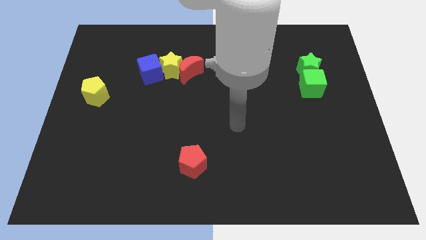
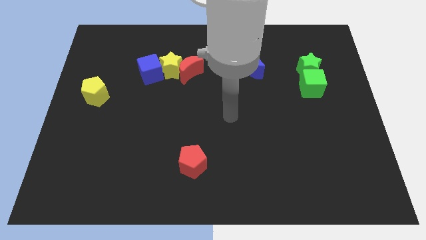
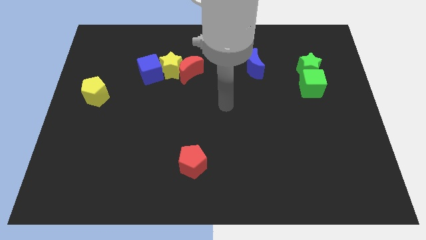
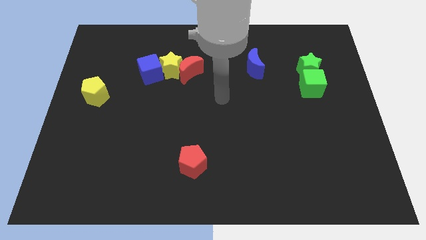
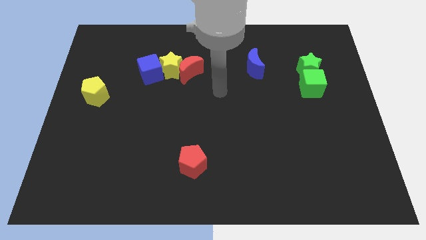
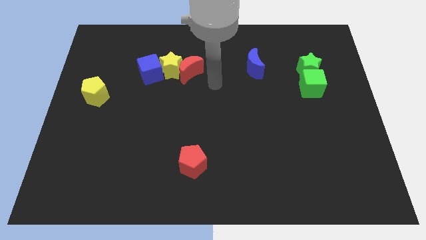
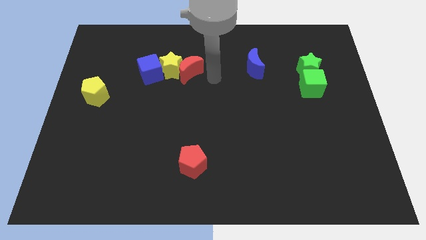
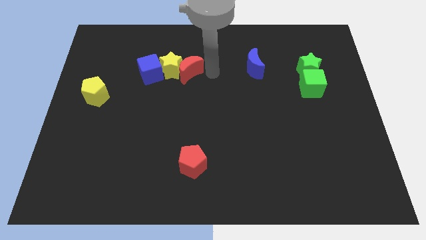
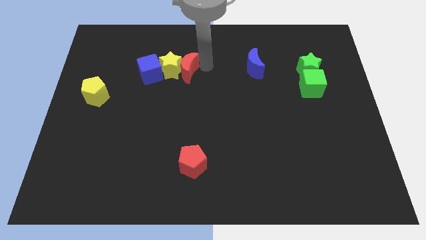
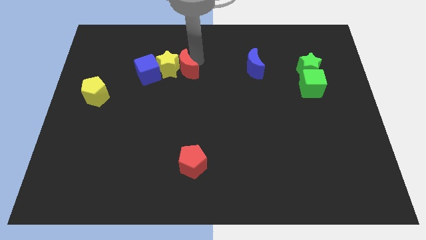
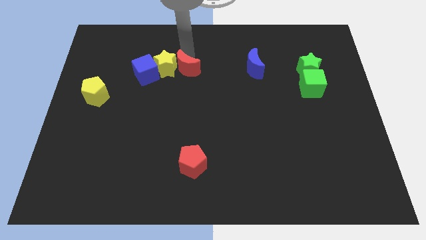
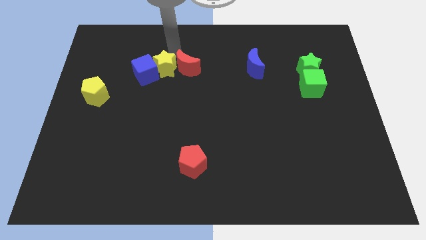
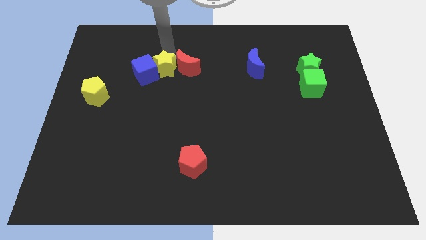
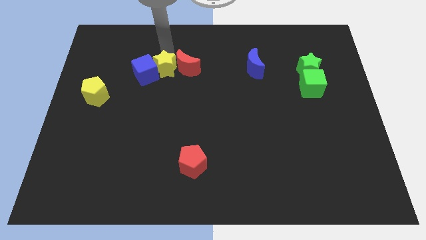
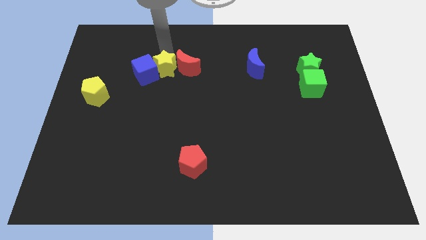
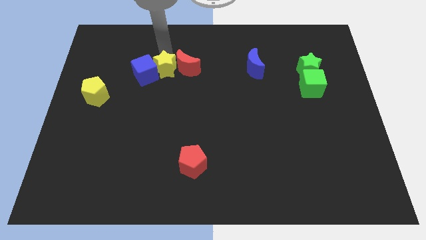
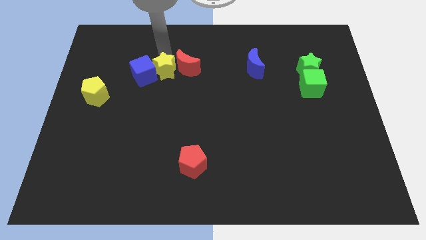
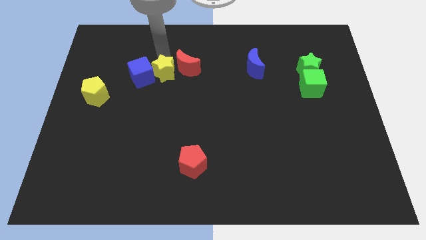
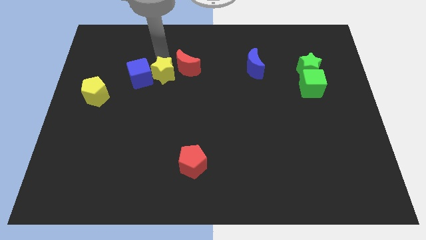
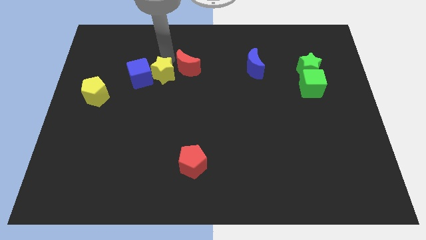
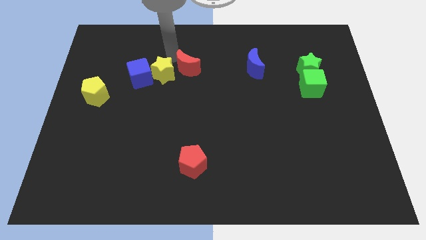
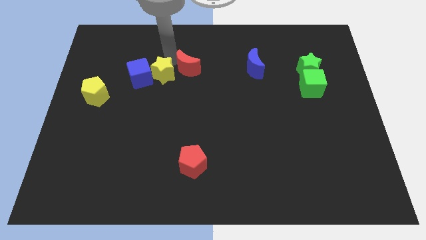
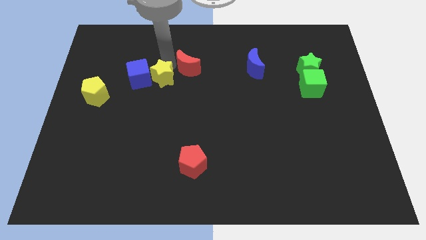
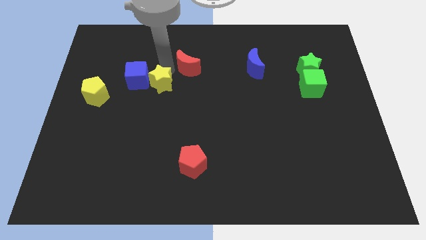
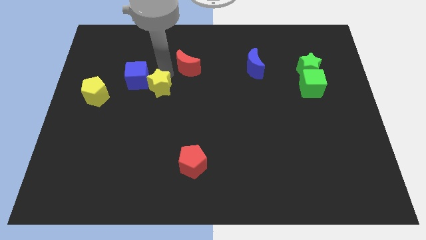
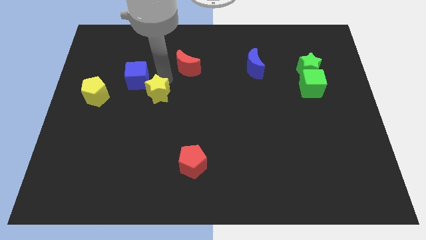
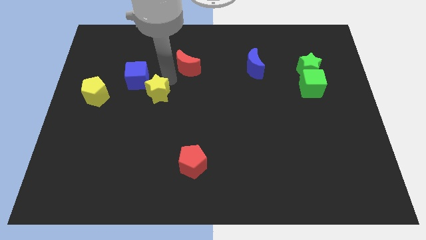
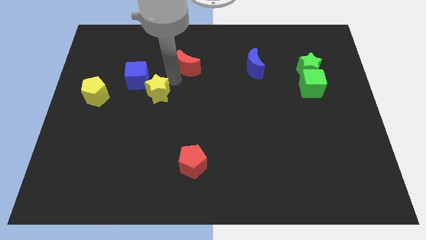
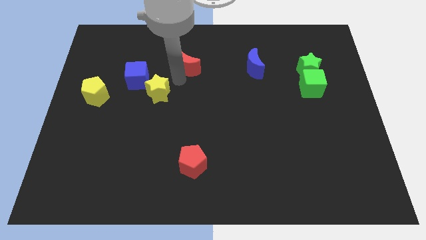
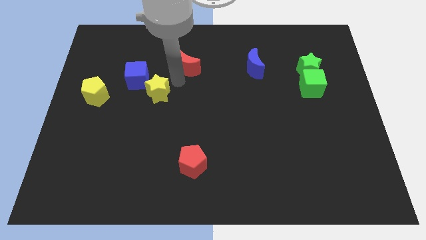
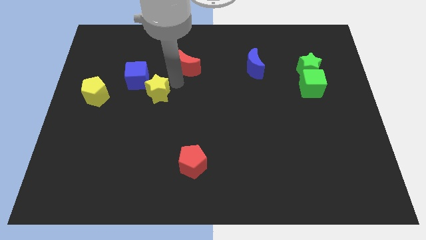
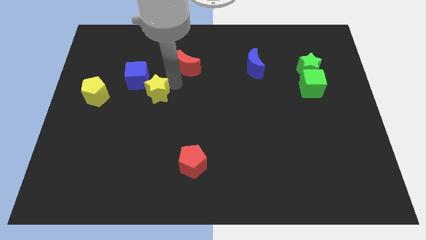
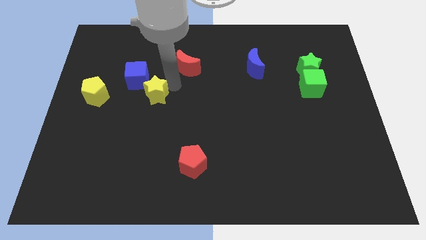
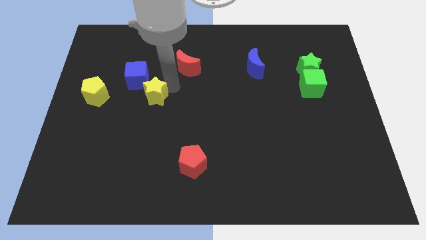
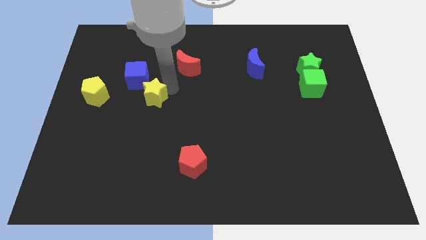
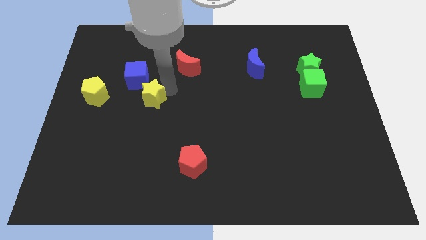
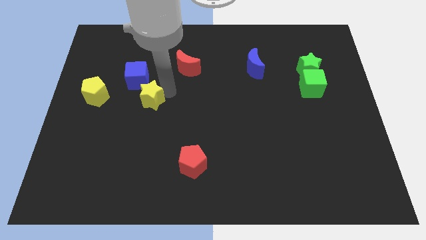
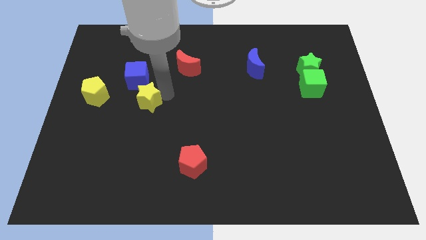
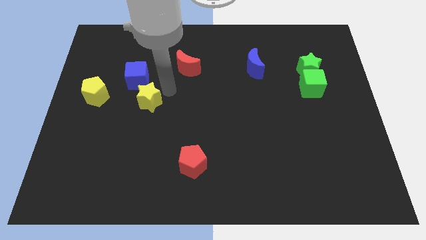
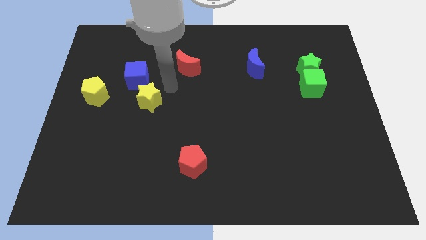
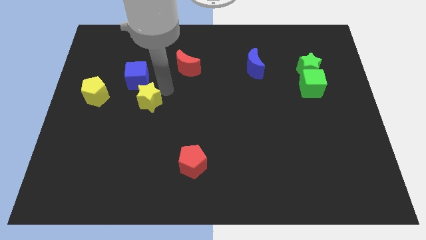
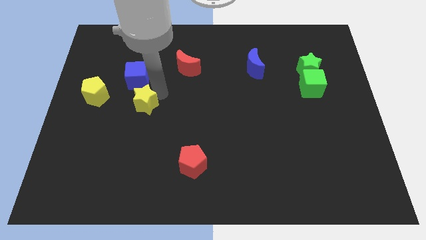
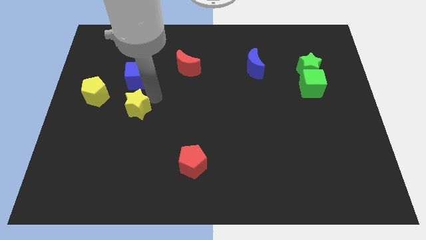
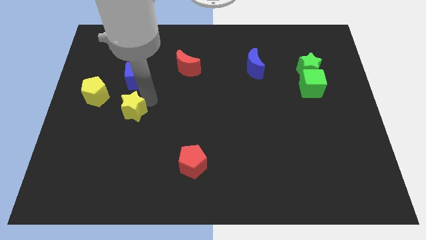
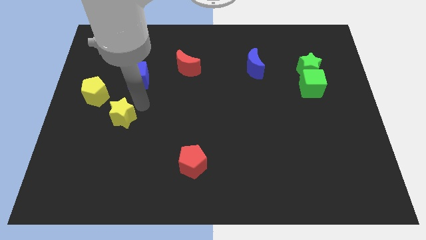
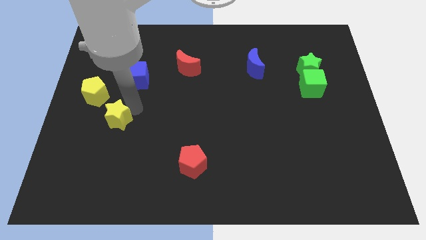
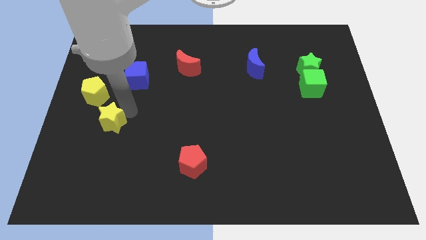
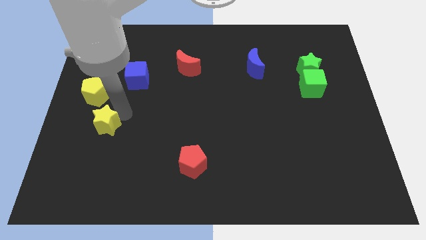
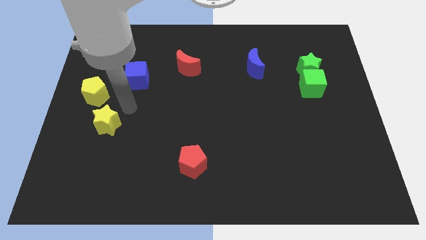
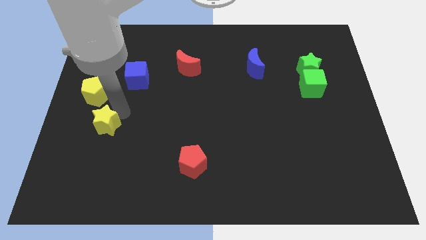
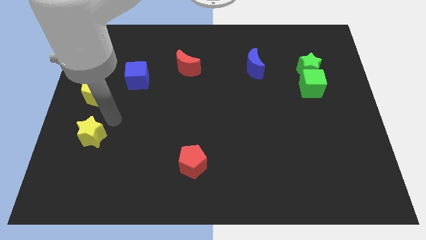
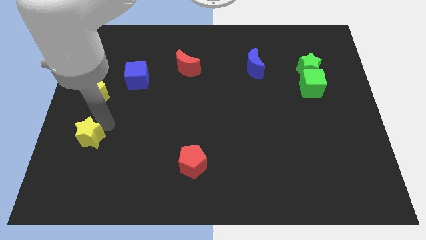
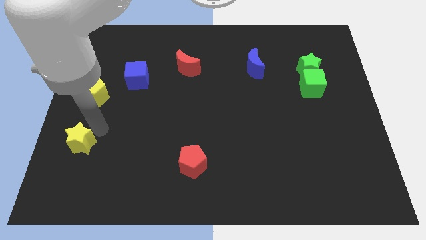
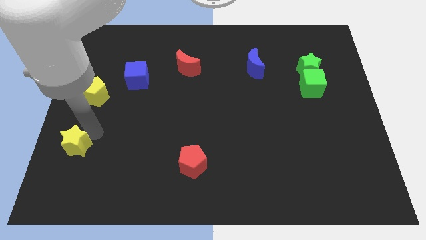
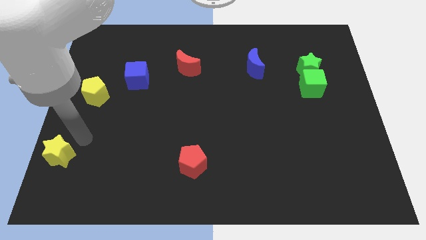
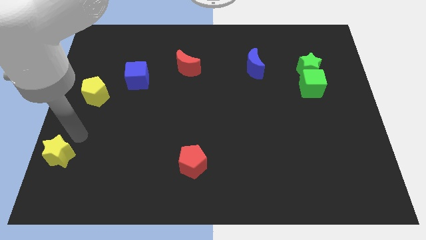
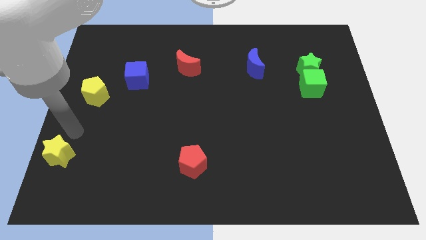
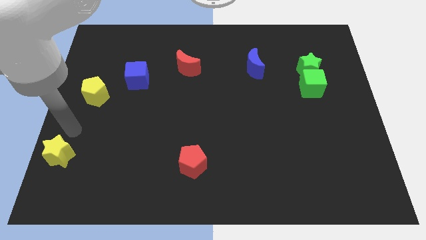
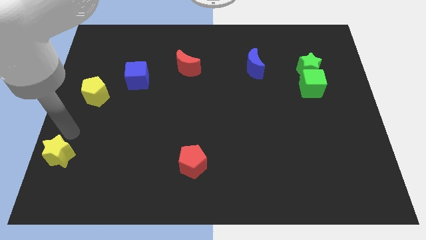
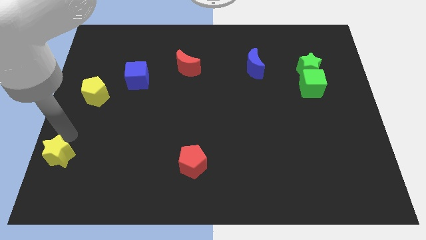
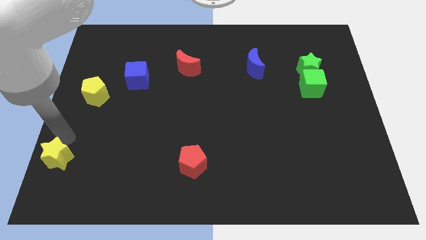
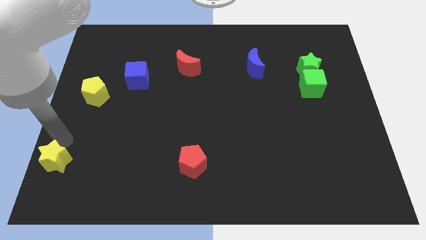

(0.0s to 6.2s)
move the yellow star to the bottom left
